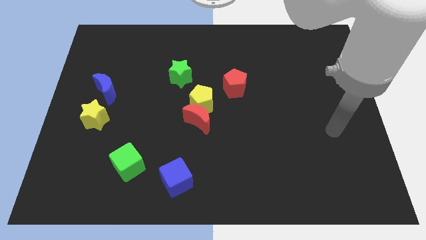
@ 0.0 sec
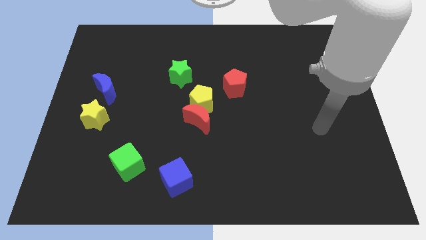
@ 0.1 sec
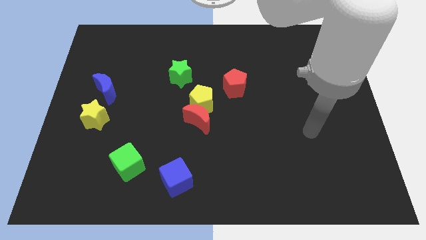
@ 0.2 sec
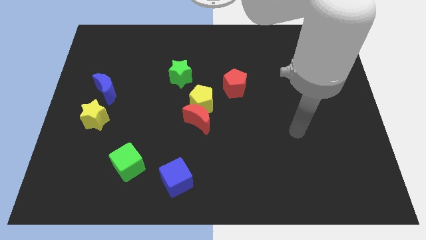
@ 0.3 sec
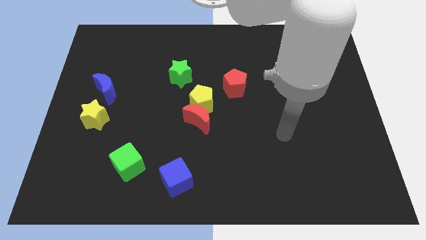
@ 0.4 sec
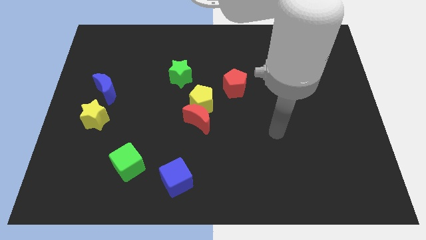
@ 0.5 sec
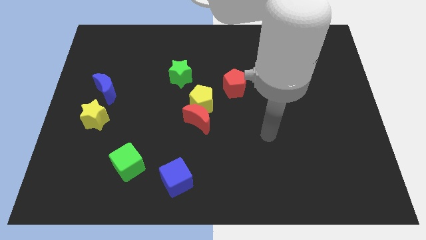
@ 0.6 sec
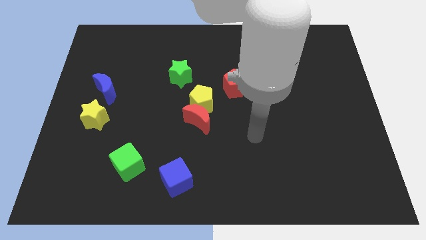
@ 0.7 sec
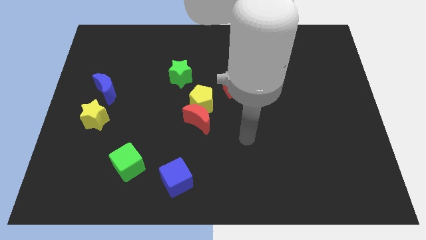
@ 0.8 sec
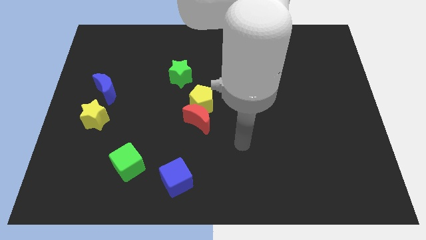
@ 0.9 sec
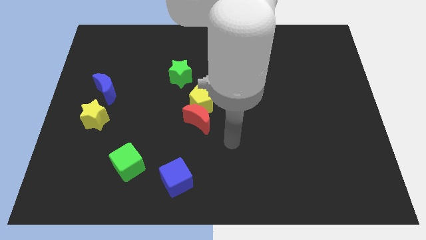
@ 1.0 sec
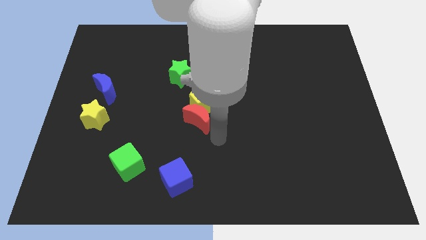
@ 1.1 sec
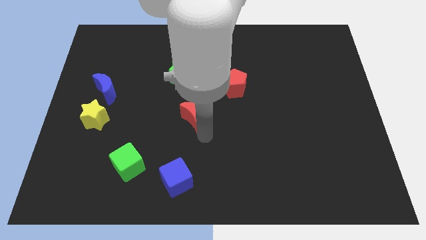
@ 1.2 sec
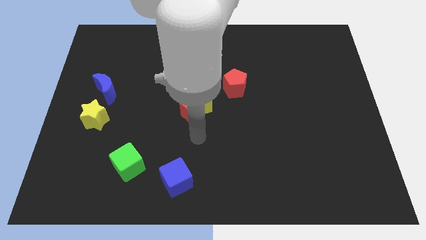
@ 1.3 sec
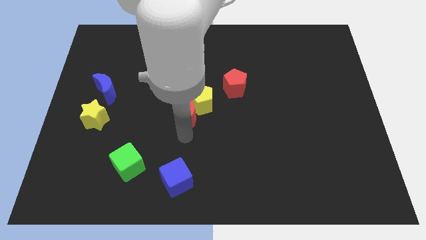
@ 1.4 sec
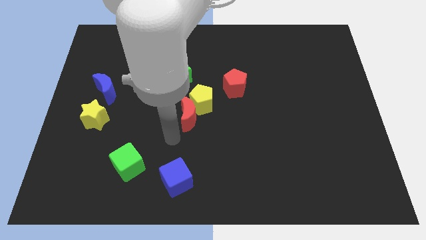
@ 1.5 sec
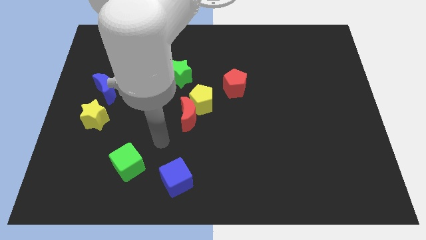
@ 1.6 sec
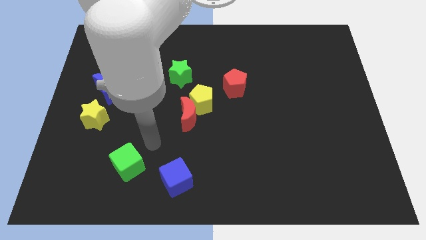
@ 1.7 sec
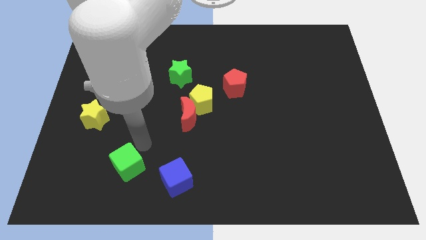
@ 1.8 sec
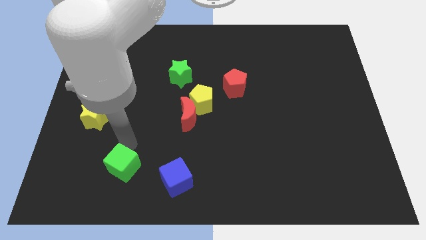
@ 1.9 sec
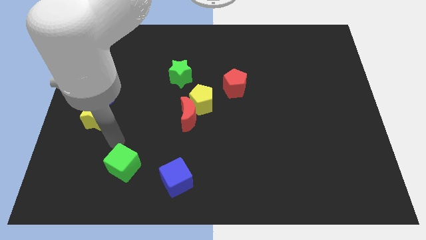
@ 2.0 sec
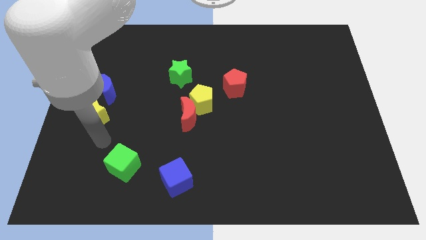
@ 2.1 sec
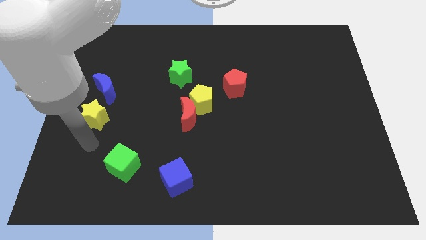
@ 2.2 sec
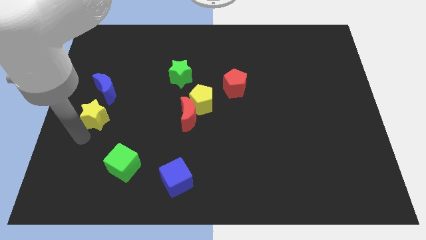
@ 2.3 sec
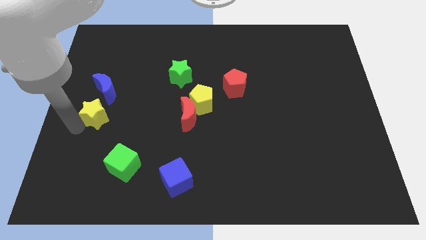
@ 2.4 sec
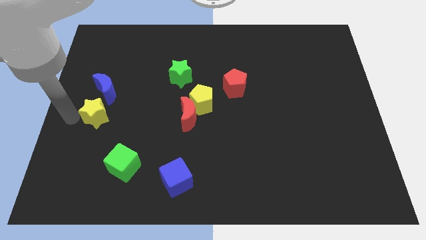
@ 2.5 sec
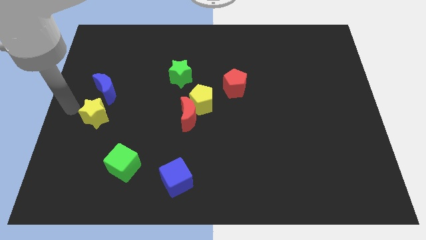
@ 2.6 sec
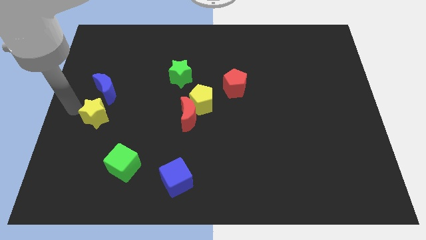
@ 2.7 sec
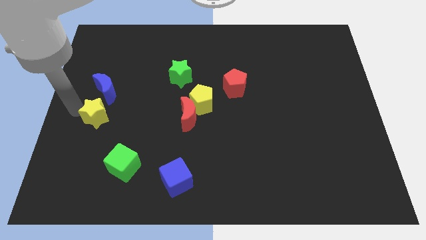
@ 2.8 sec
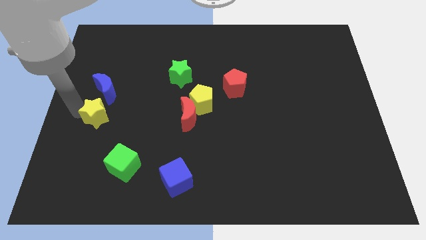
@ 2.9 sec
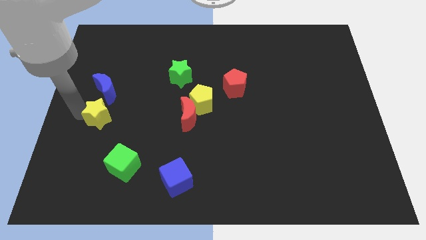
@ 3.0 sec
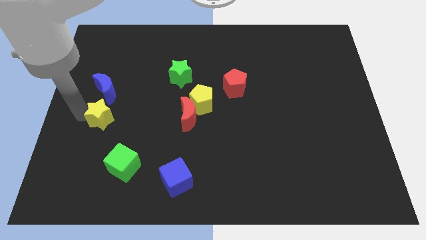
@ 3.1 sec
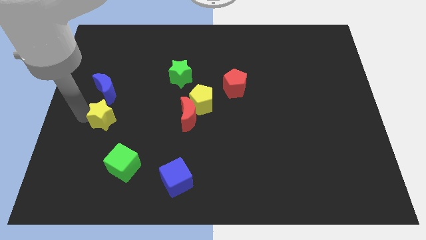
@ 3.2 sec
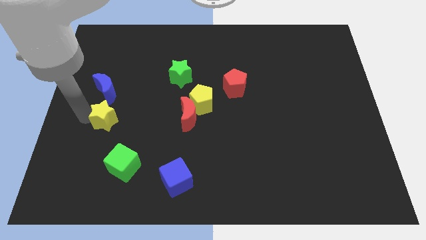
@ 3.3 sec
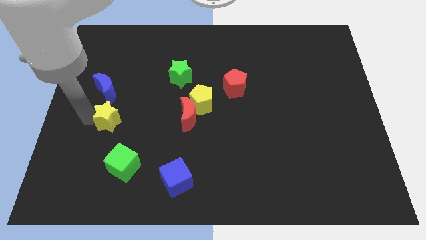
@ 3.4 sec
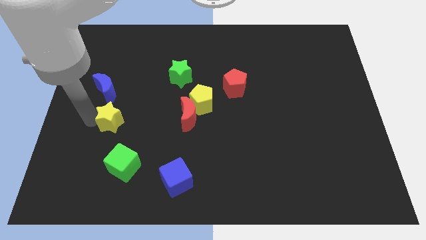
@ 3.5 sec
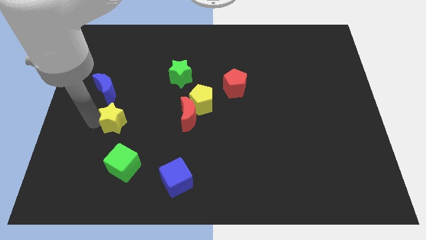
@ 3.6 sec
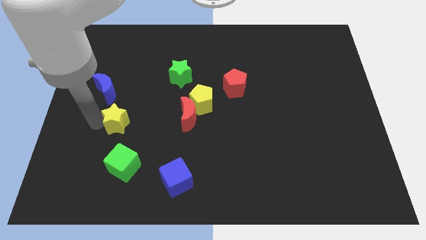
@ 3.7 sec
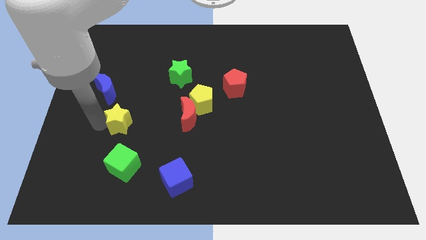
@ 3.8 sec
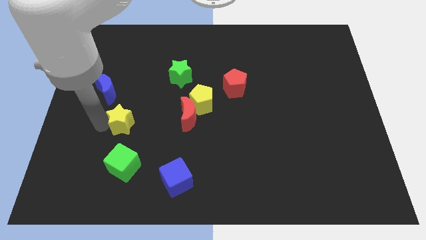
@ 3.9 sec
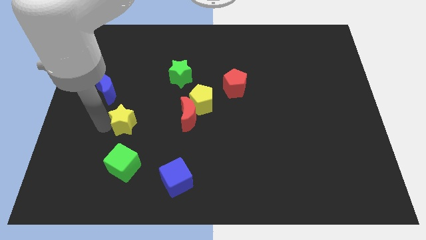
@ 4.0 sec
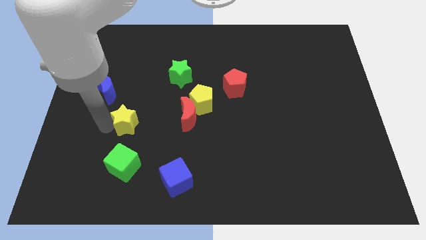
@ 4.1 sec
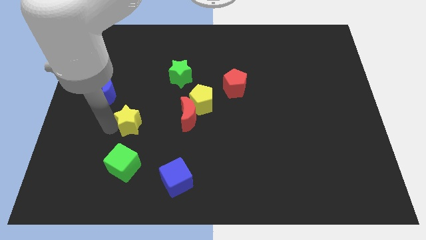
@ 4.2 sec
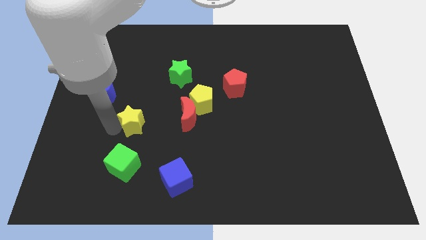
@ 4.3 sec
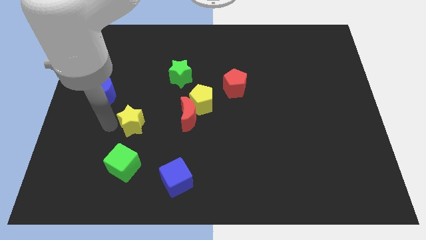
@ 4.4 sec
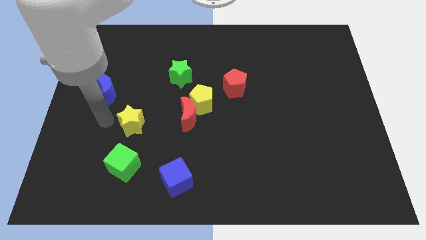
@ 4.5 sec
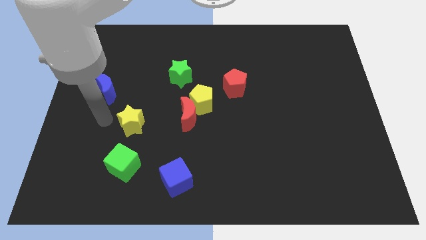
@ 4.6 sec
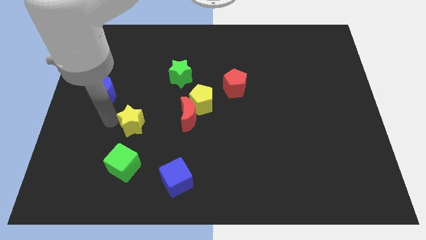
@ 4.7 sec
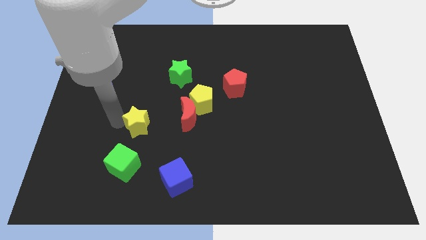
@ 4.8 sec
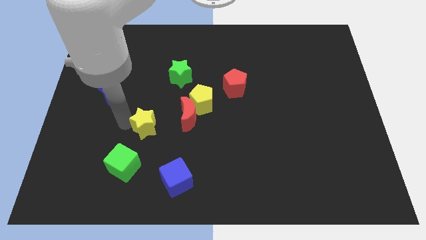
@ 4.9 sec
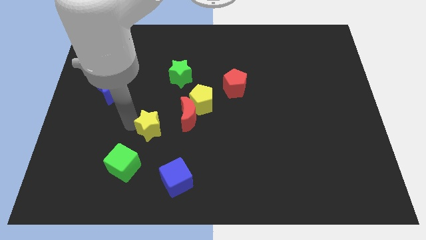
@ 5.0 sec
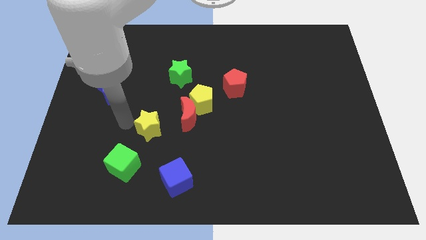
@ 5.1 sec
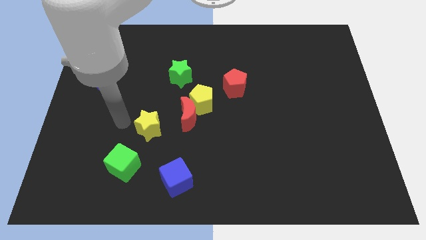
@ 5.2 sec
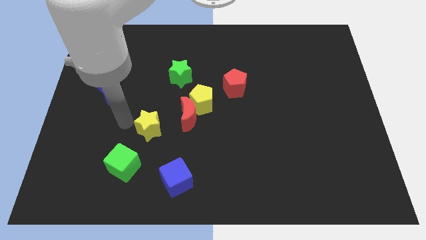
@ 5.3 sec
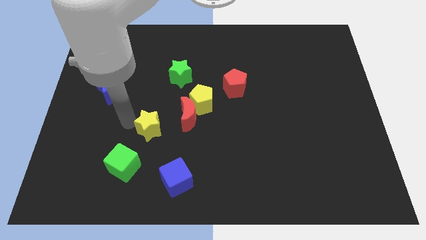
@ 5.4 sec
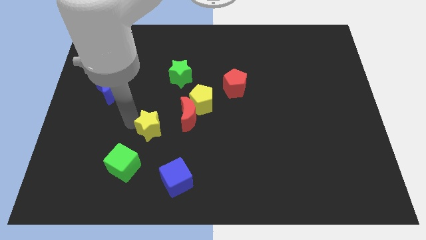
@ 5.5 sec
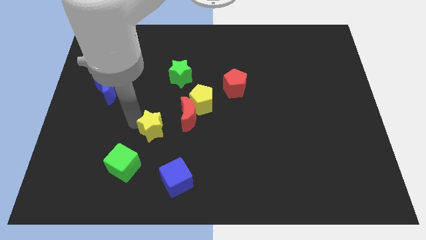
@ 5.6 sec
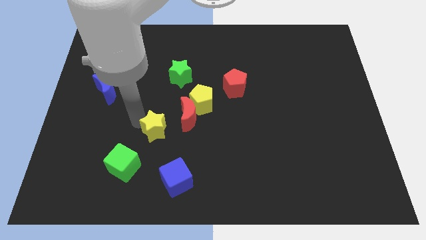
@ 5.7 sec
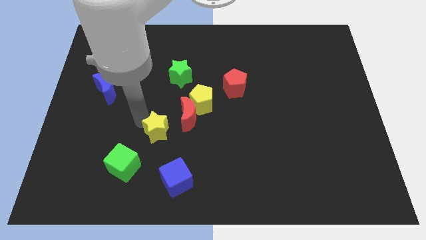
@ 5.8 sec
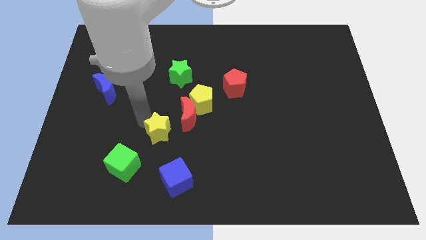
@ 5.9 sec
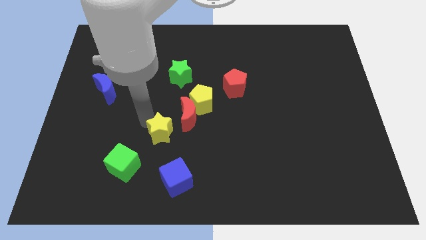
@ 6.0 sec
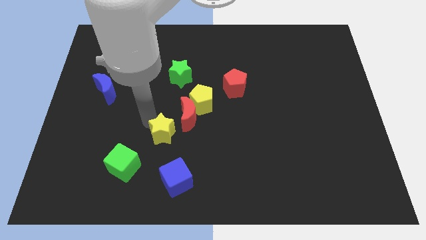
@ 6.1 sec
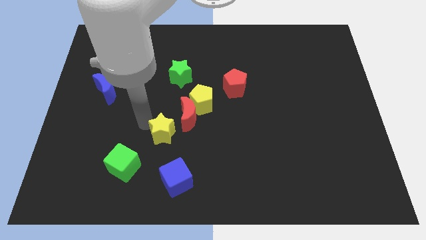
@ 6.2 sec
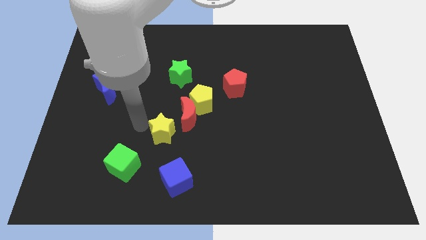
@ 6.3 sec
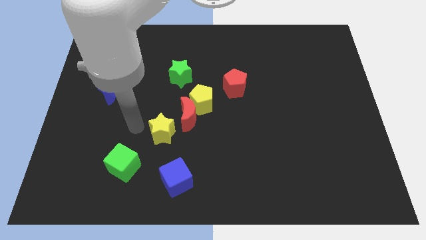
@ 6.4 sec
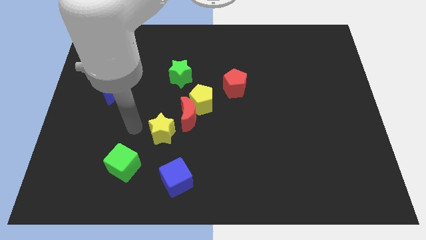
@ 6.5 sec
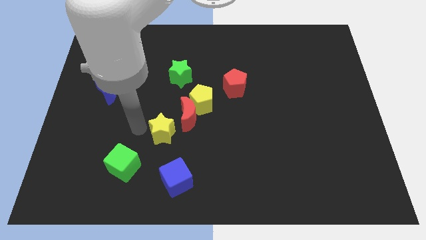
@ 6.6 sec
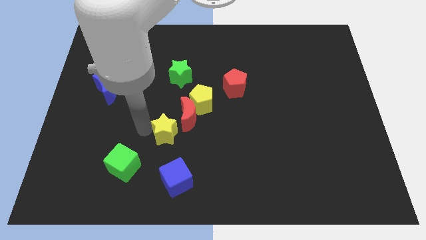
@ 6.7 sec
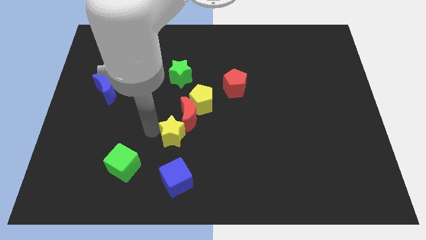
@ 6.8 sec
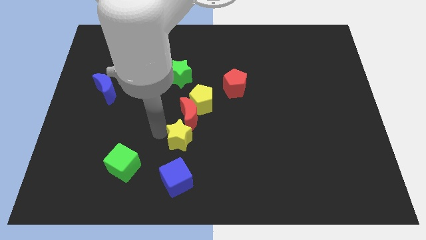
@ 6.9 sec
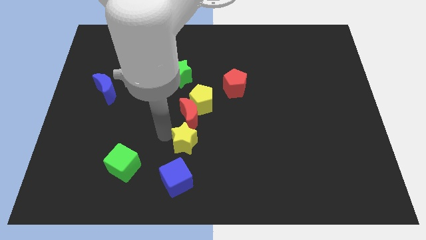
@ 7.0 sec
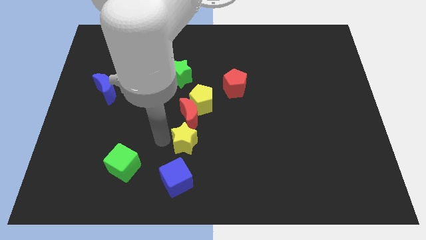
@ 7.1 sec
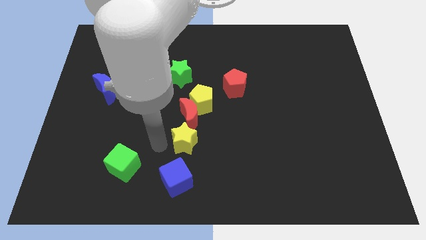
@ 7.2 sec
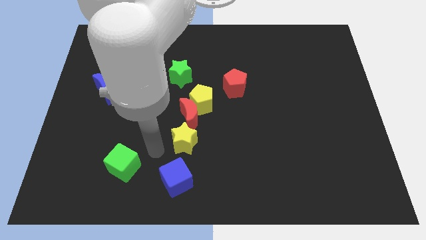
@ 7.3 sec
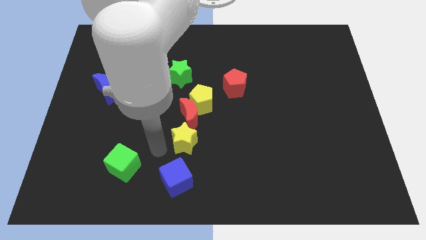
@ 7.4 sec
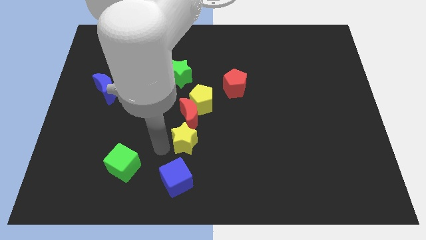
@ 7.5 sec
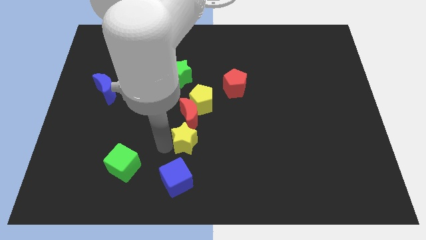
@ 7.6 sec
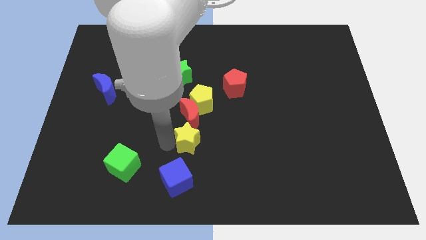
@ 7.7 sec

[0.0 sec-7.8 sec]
push the yellow star to the right
